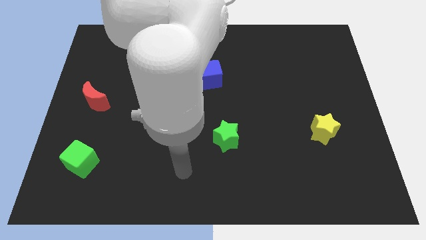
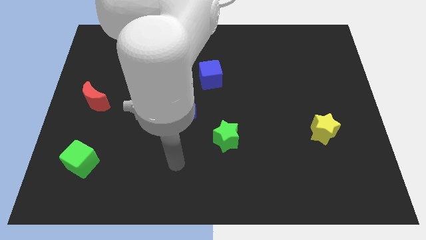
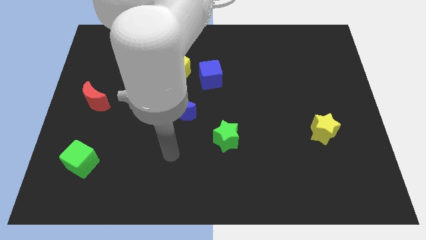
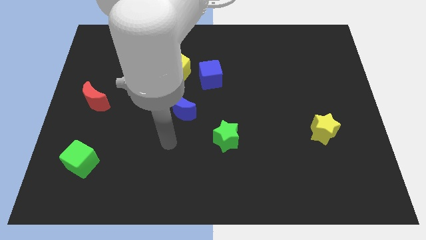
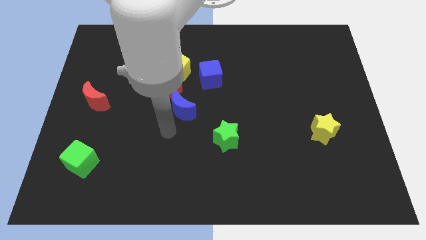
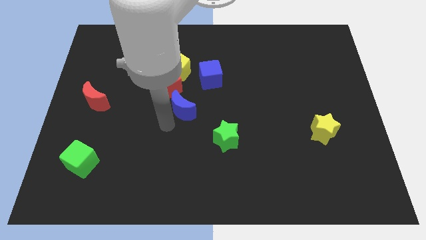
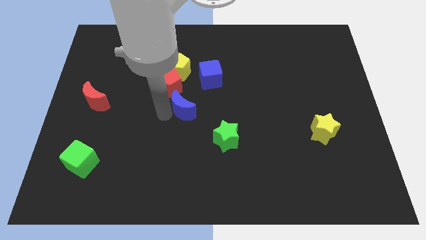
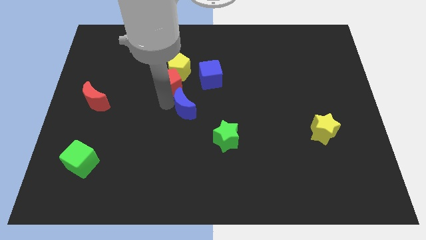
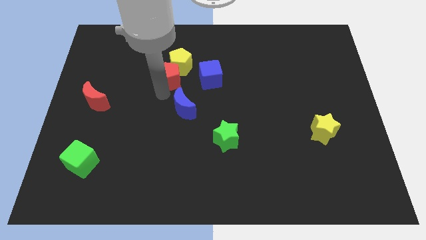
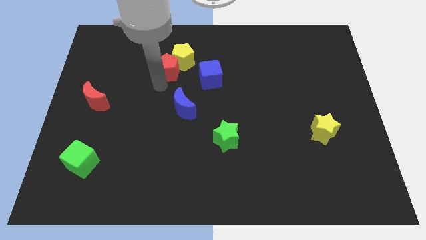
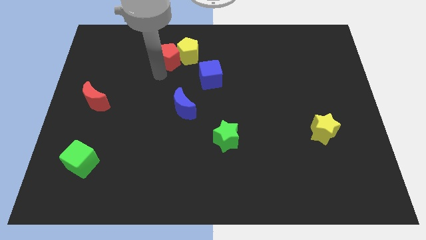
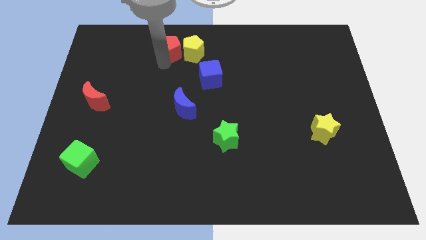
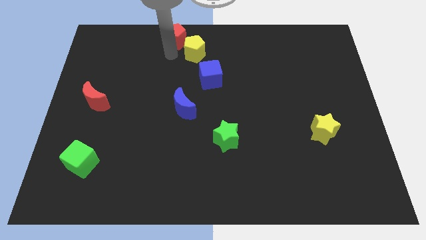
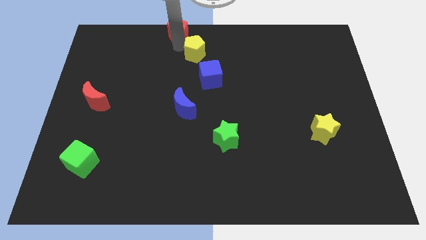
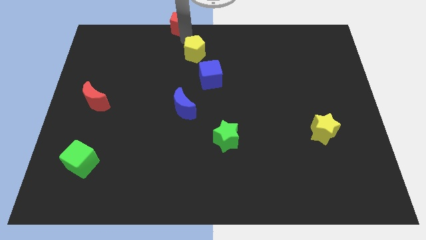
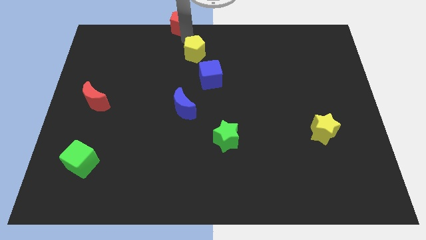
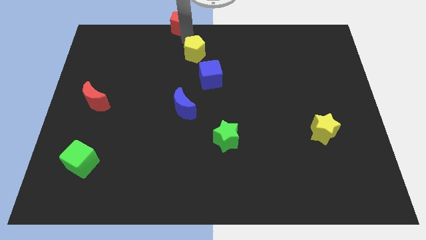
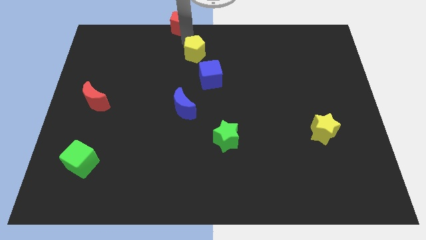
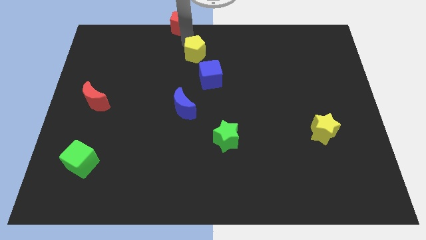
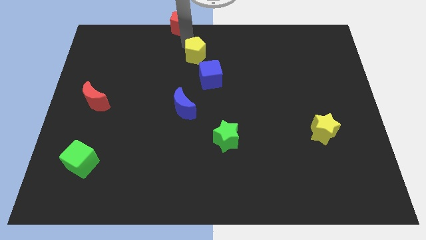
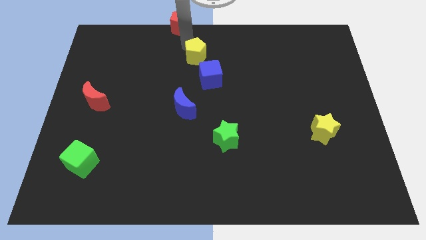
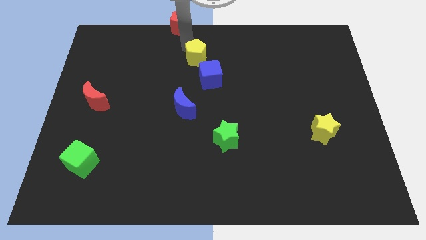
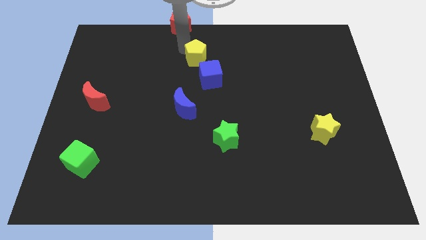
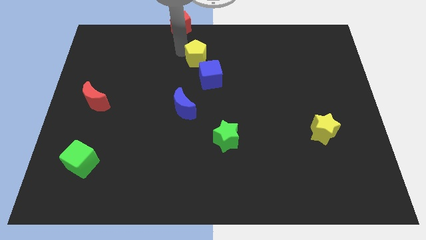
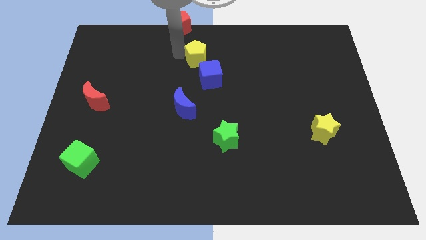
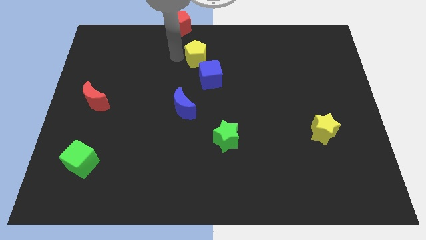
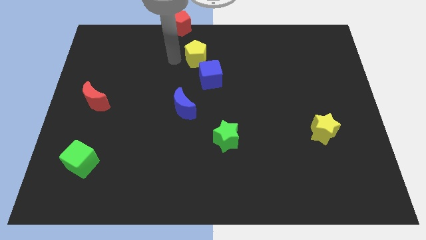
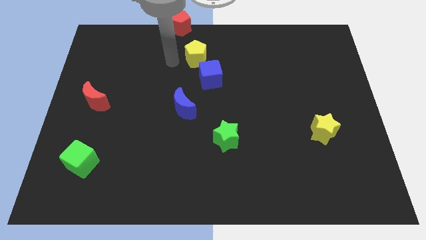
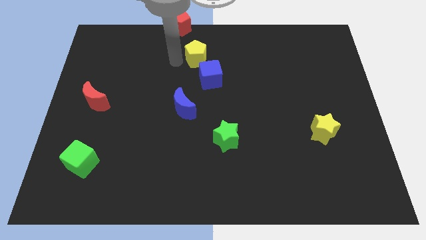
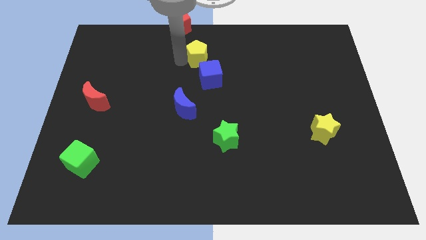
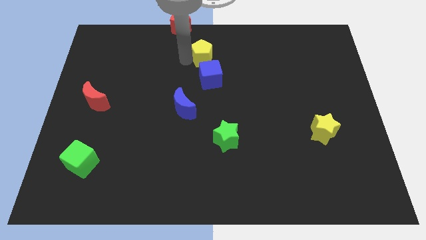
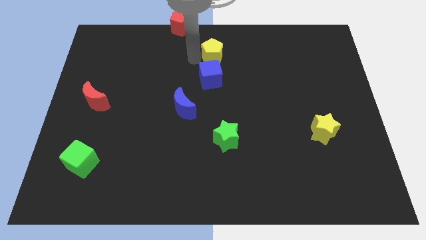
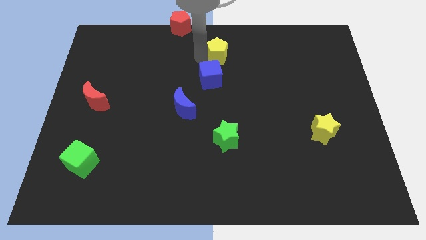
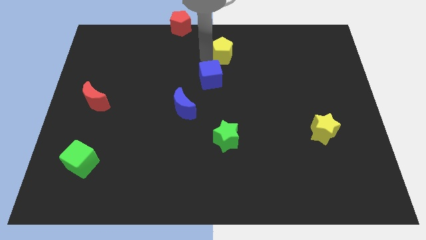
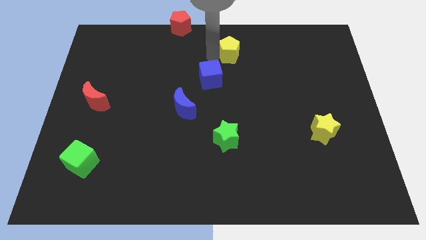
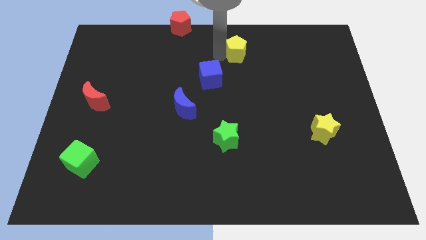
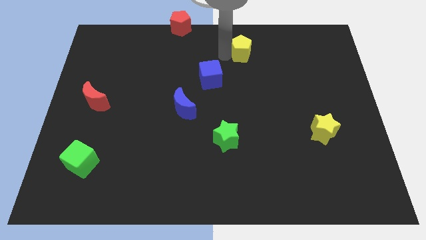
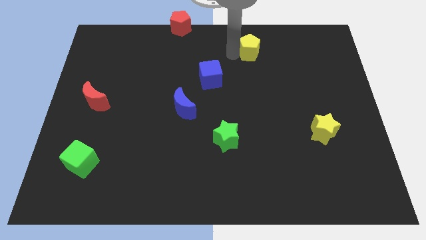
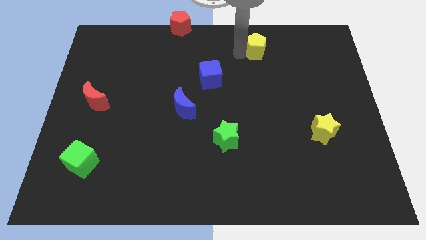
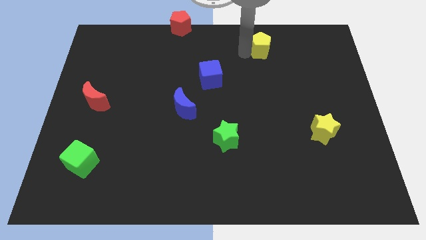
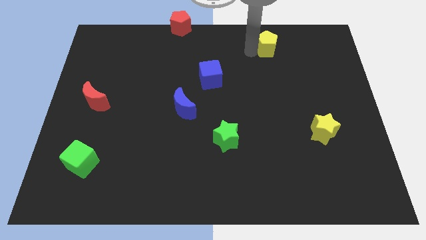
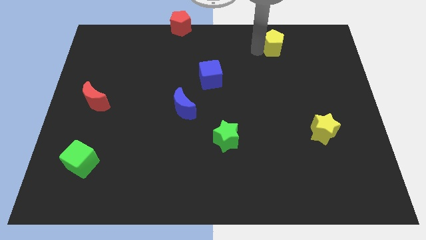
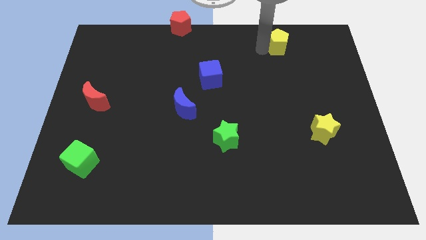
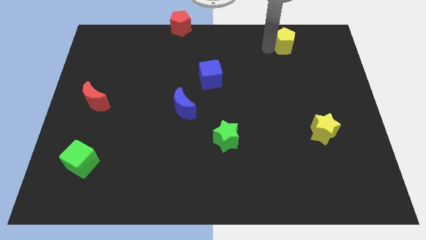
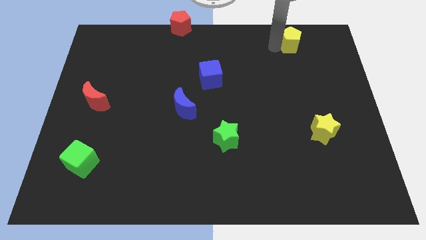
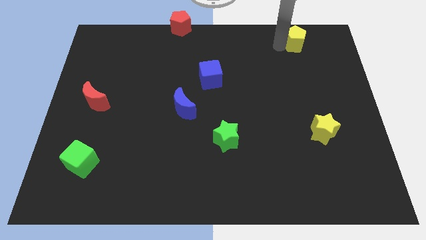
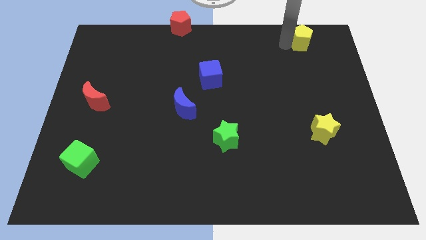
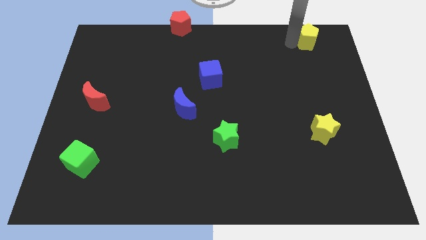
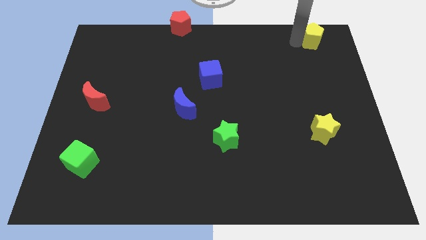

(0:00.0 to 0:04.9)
put the yellow pentagon to the top right of the board

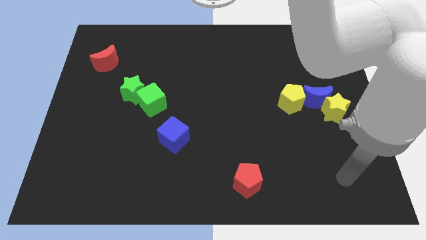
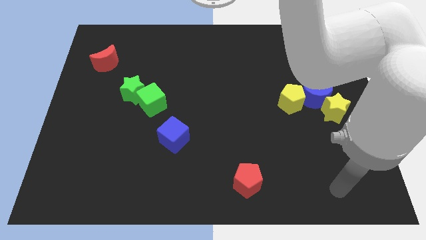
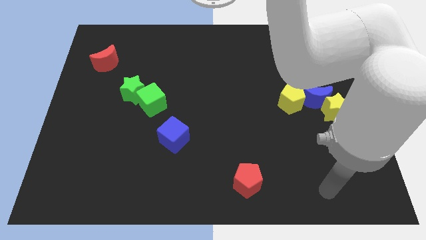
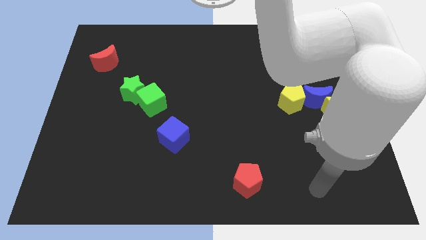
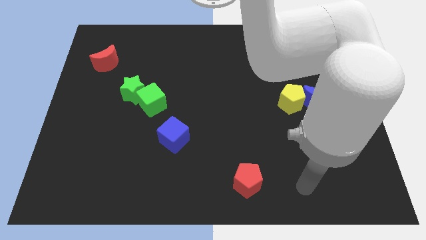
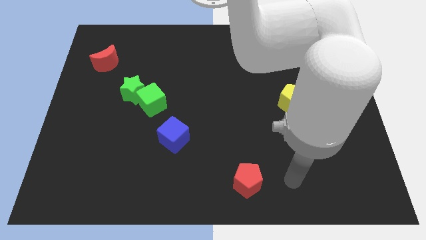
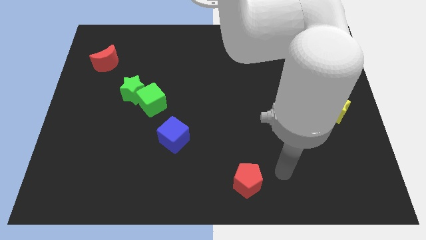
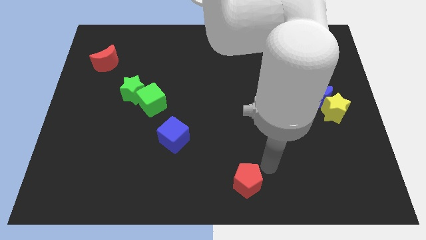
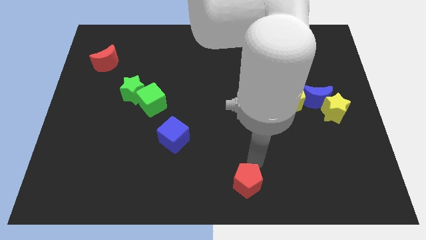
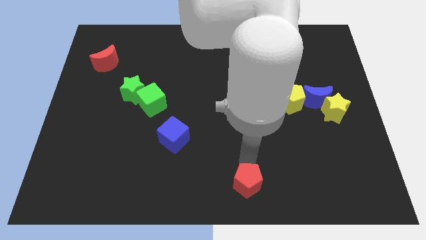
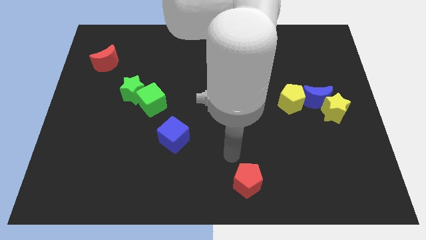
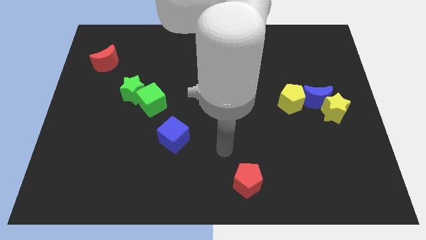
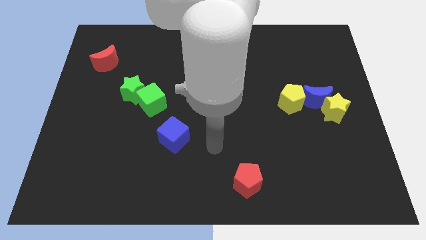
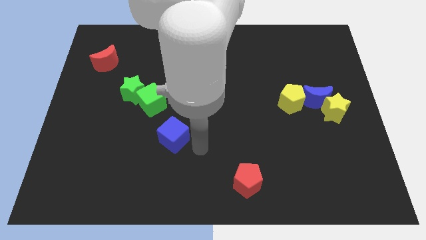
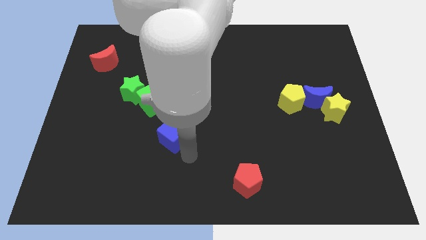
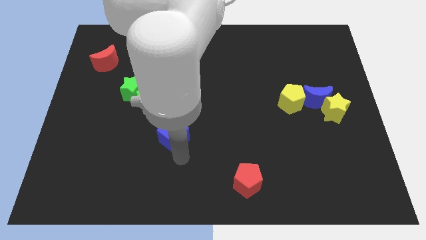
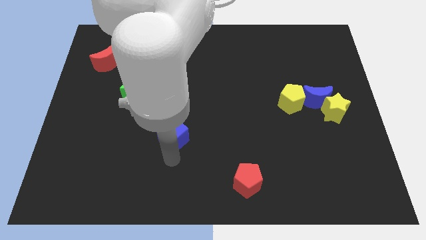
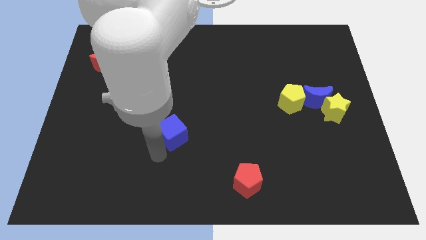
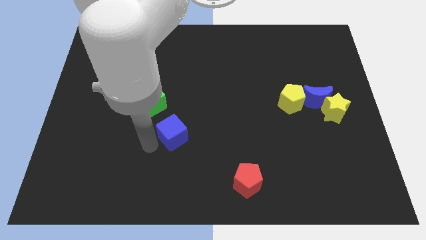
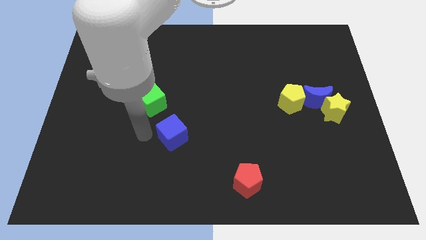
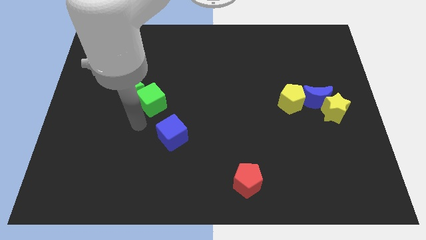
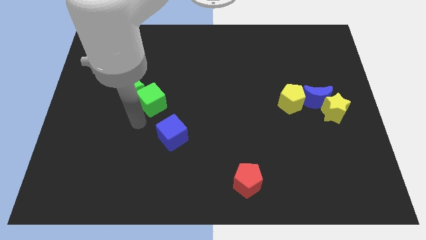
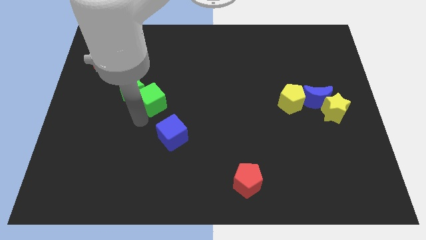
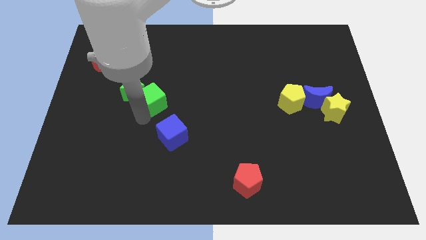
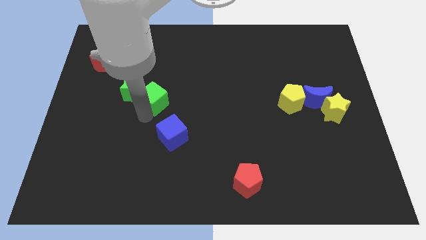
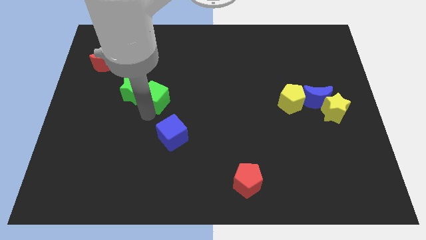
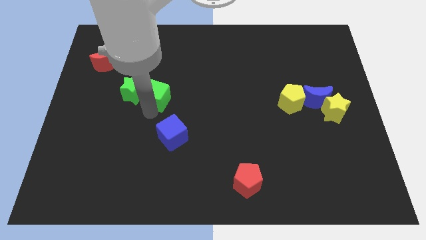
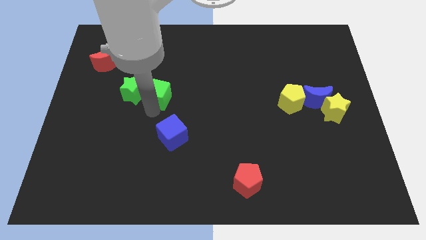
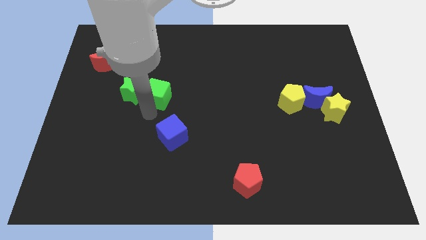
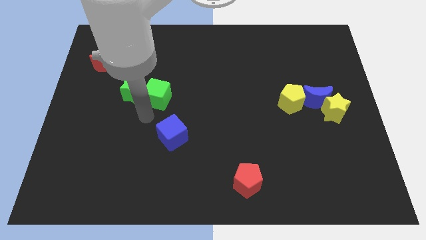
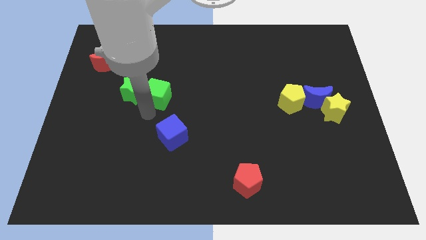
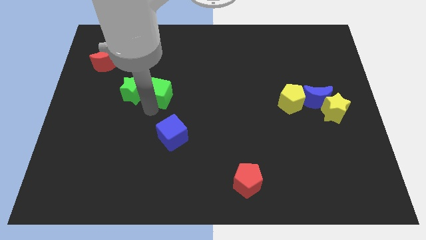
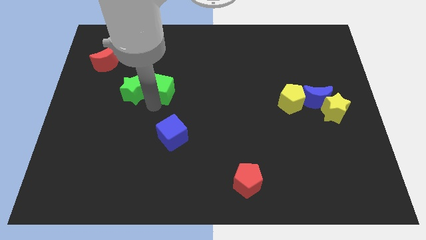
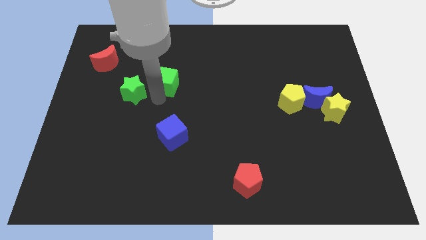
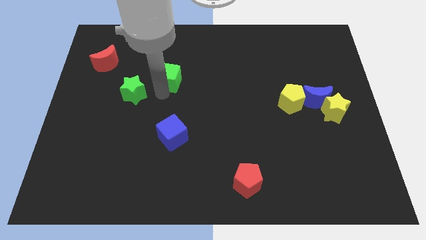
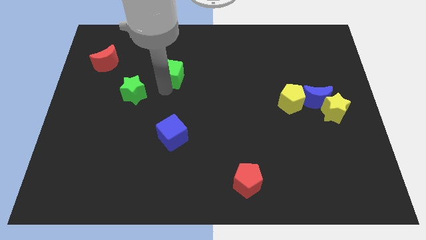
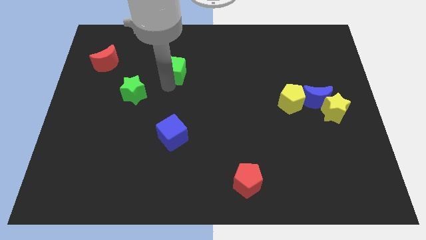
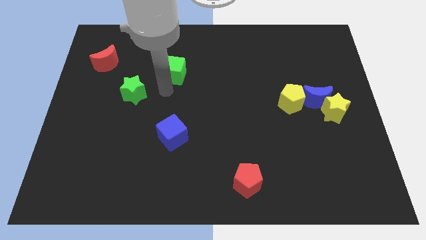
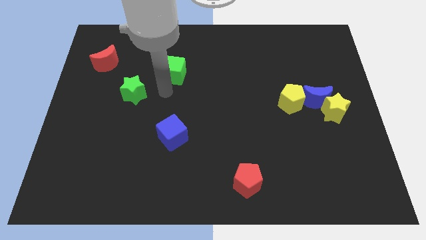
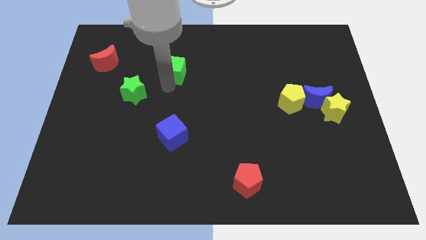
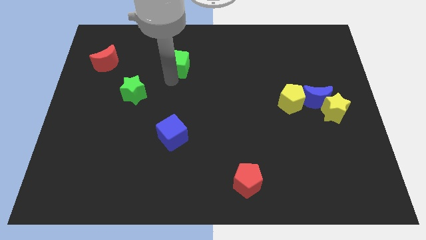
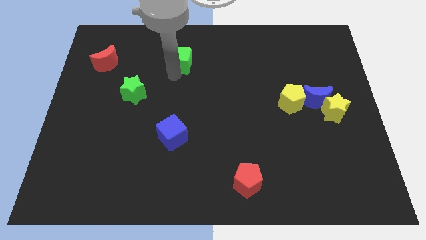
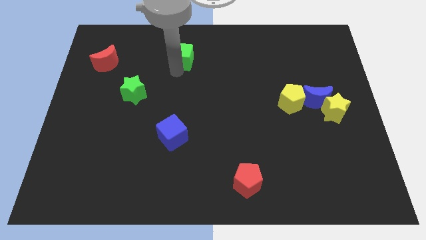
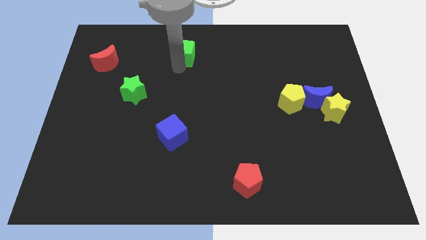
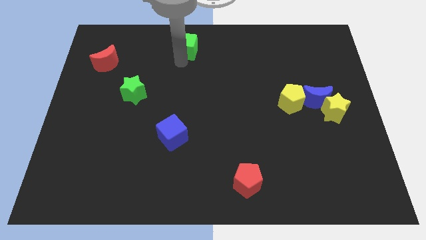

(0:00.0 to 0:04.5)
slide the green cube to the top
